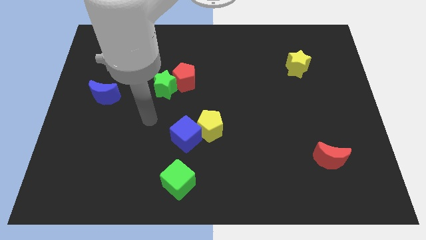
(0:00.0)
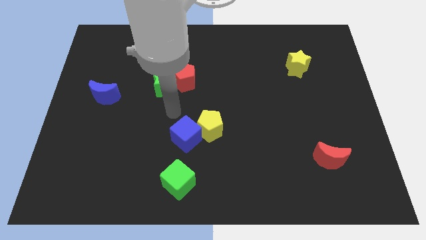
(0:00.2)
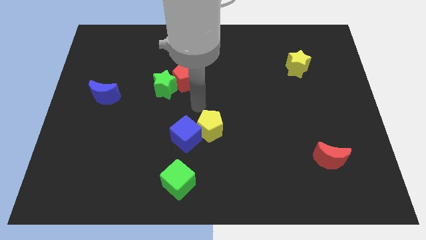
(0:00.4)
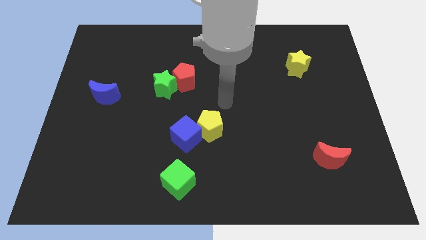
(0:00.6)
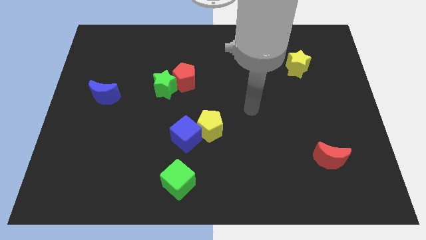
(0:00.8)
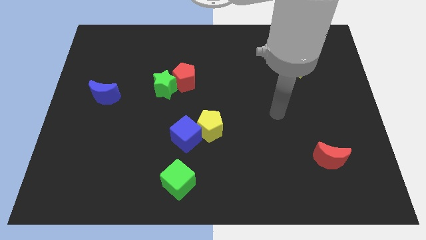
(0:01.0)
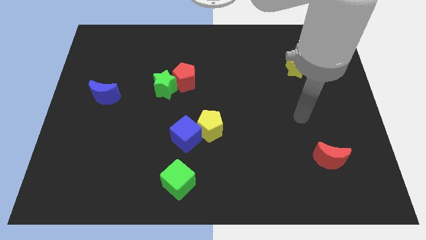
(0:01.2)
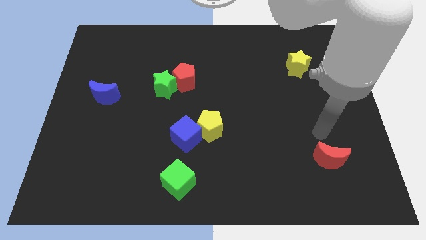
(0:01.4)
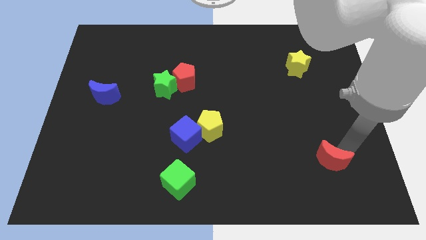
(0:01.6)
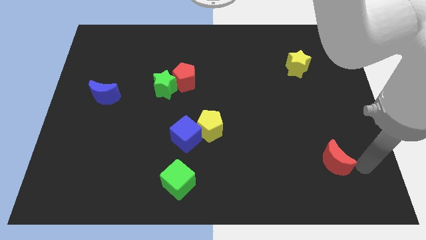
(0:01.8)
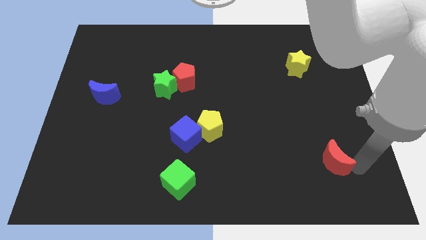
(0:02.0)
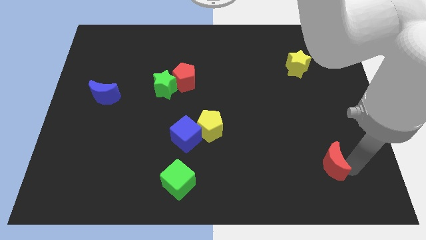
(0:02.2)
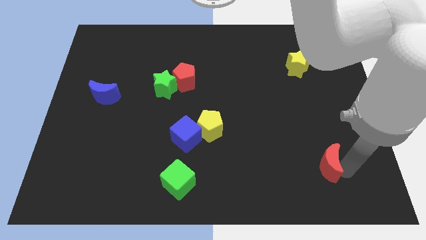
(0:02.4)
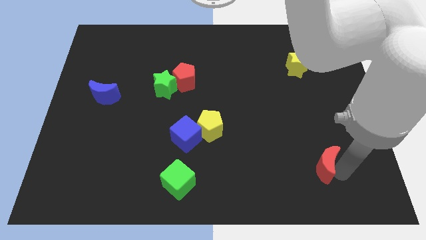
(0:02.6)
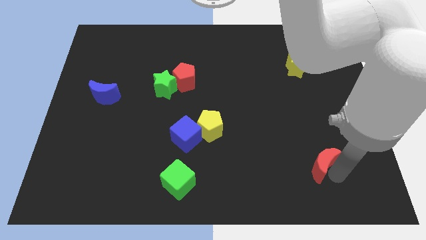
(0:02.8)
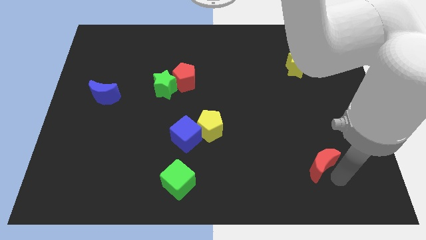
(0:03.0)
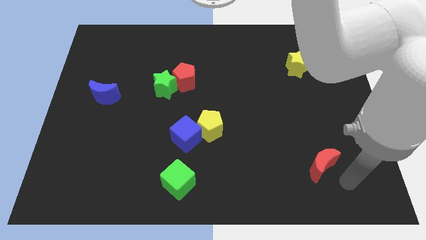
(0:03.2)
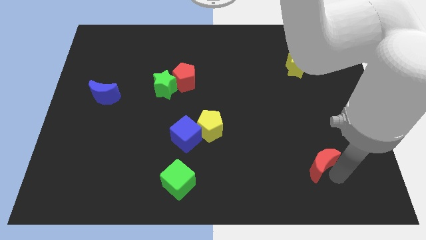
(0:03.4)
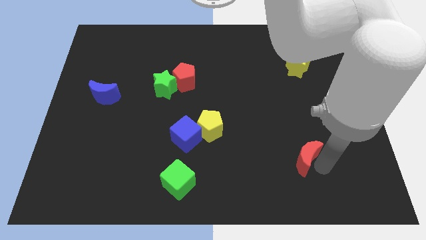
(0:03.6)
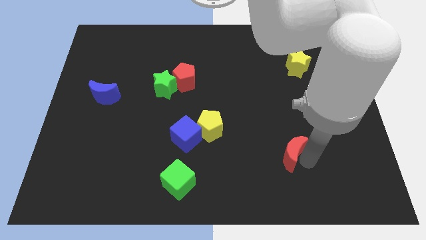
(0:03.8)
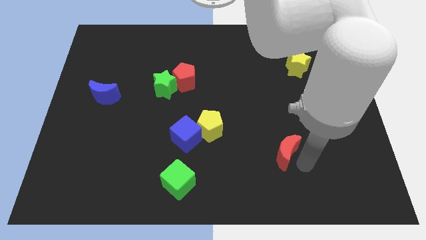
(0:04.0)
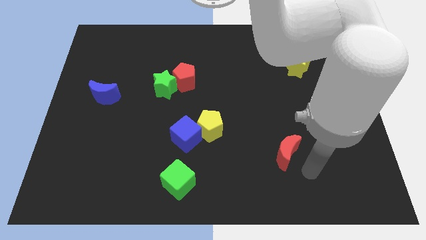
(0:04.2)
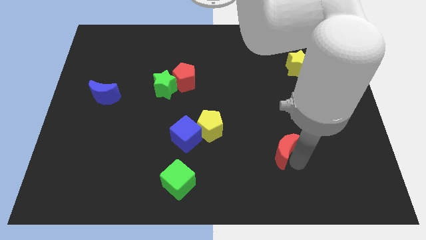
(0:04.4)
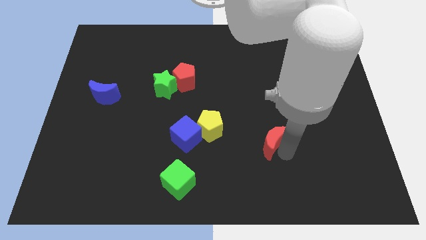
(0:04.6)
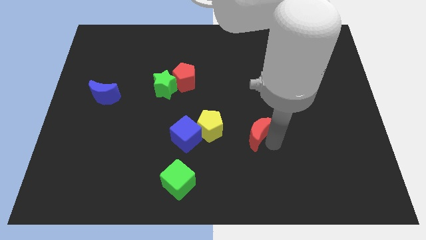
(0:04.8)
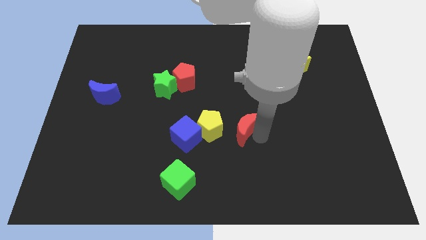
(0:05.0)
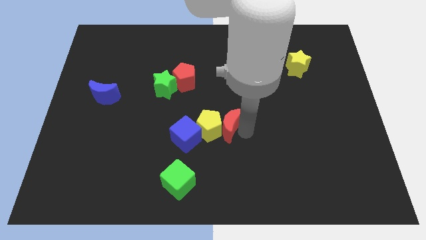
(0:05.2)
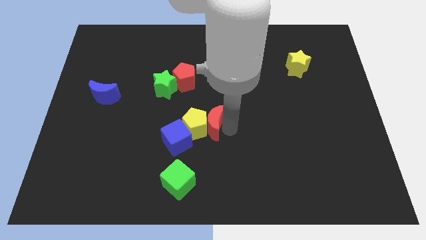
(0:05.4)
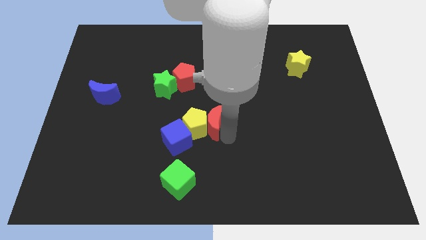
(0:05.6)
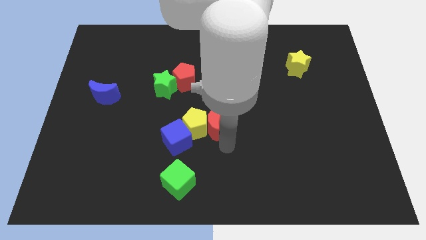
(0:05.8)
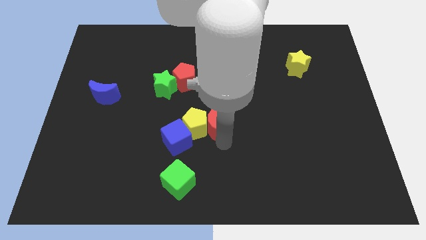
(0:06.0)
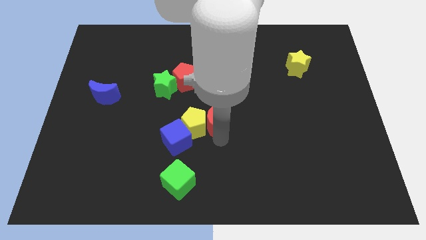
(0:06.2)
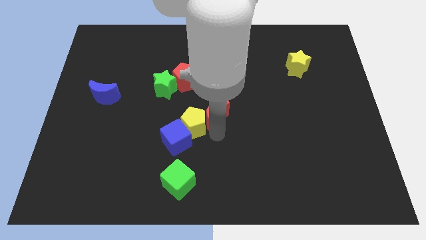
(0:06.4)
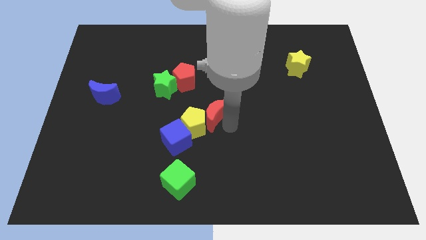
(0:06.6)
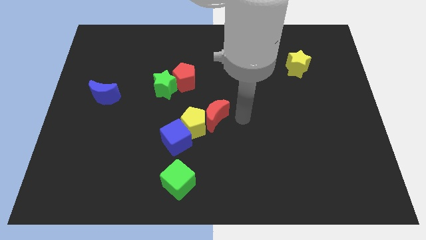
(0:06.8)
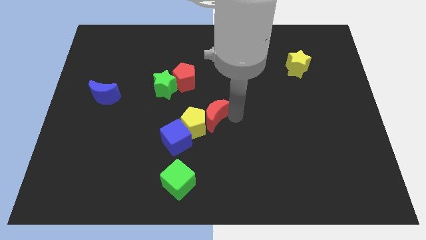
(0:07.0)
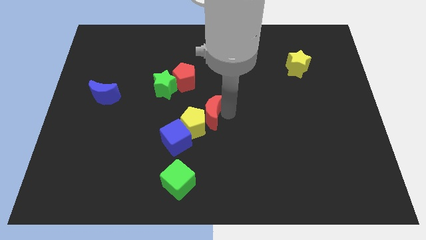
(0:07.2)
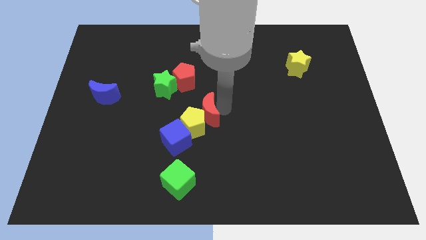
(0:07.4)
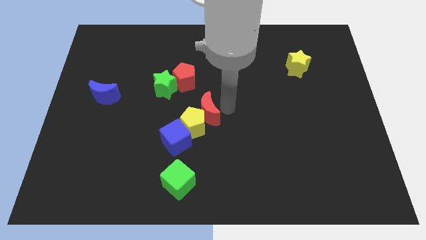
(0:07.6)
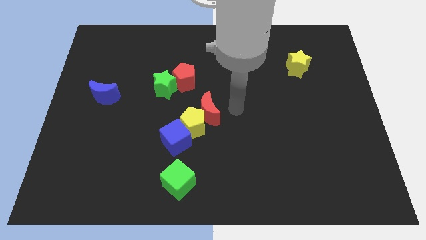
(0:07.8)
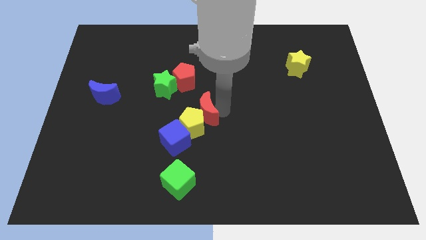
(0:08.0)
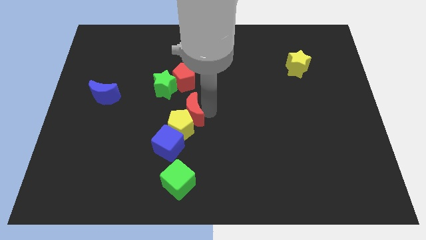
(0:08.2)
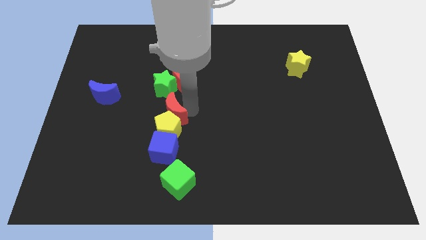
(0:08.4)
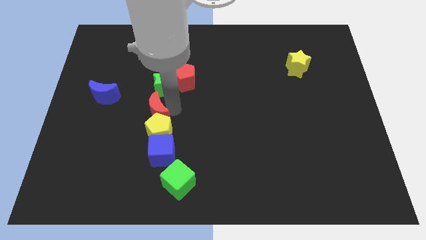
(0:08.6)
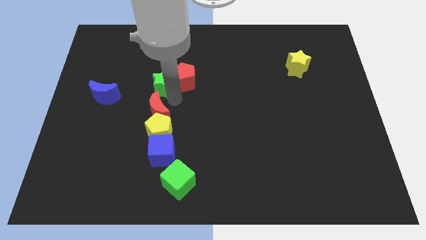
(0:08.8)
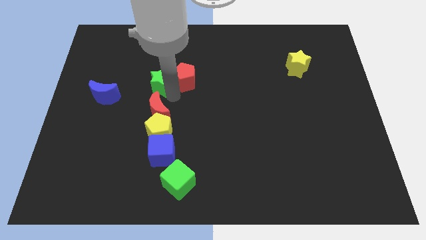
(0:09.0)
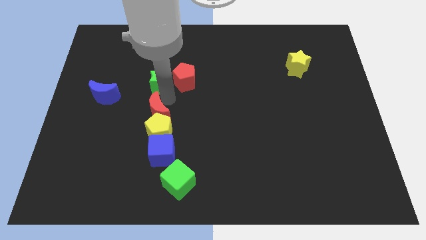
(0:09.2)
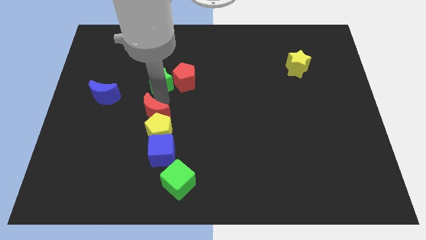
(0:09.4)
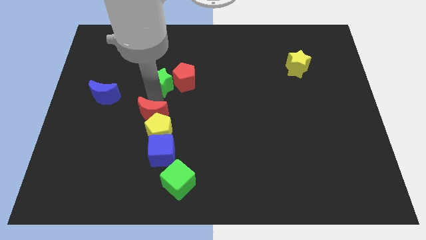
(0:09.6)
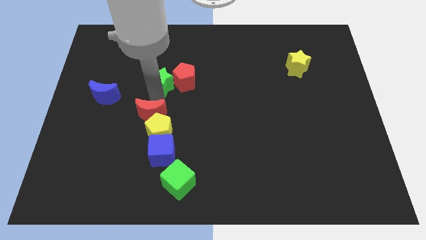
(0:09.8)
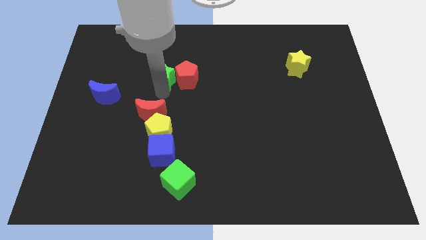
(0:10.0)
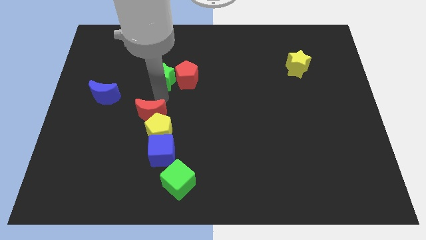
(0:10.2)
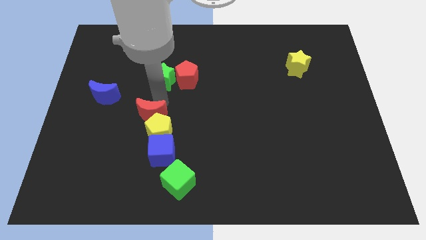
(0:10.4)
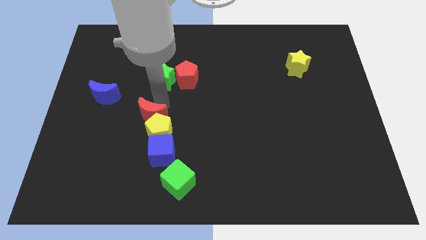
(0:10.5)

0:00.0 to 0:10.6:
push the red moon to the top left side of the blue cube

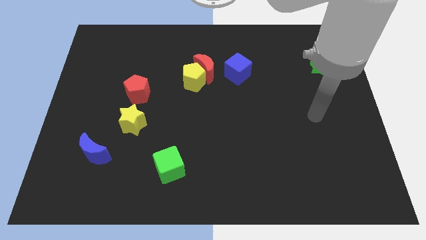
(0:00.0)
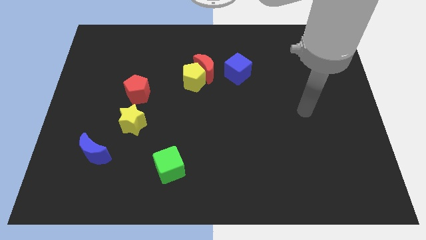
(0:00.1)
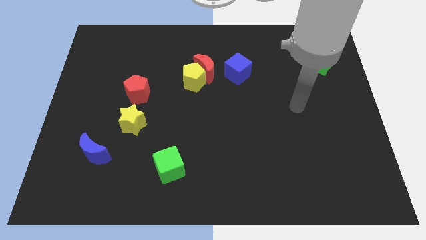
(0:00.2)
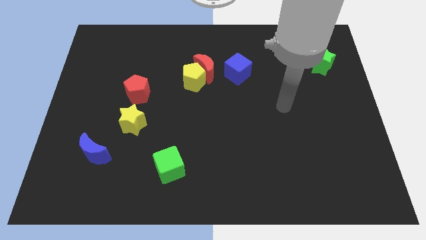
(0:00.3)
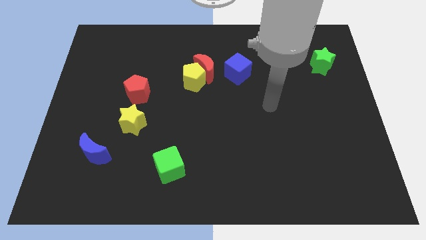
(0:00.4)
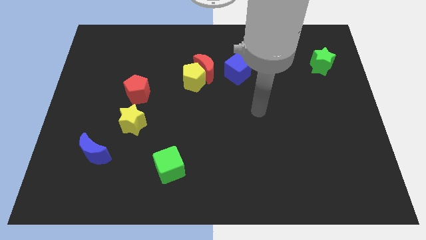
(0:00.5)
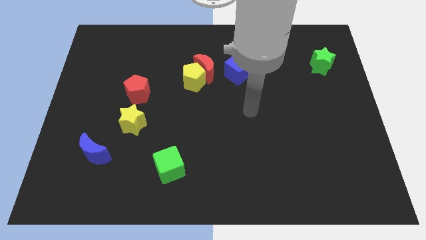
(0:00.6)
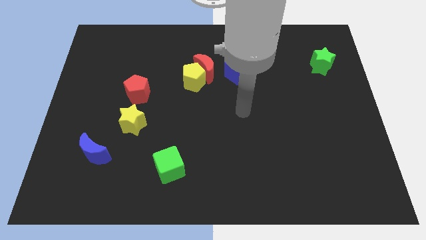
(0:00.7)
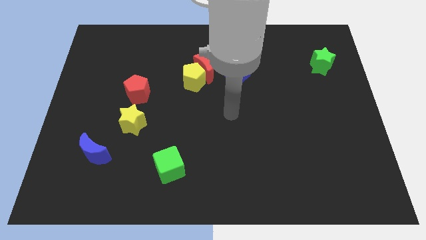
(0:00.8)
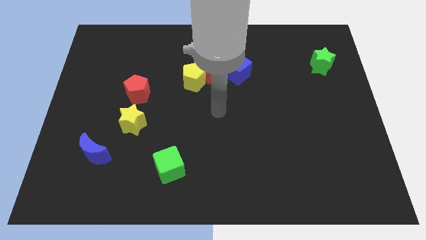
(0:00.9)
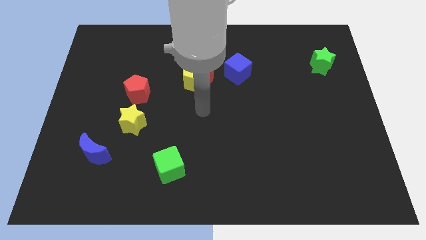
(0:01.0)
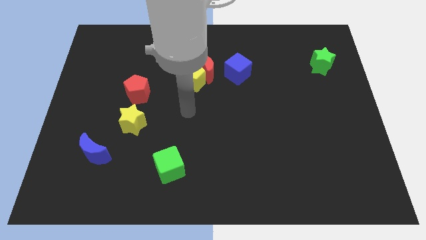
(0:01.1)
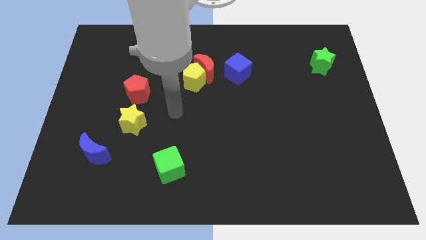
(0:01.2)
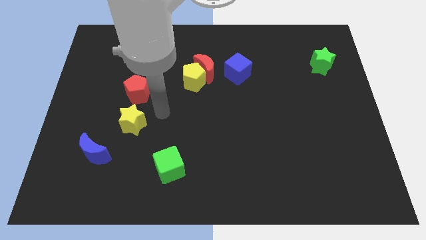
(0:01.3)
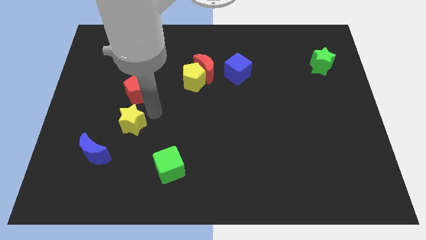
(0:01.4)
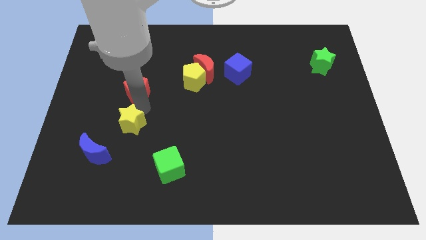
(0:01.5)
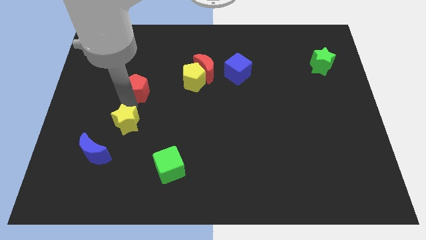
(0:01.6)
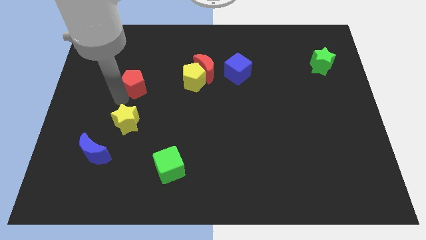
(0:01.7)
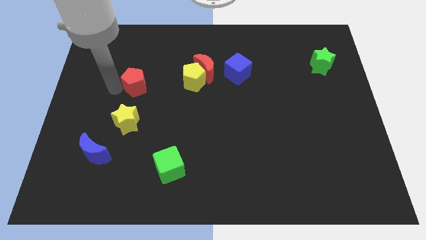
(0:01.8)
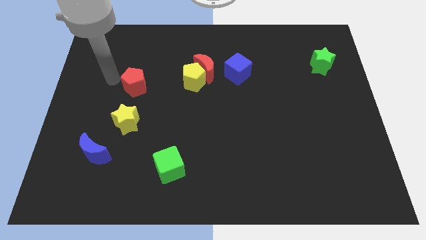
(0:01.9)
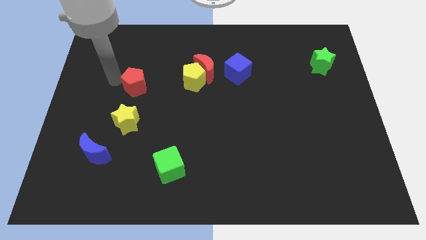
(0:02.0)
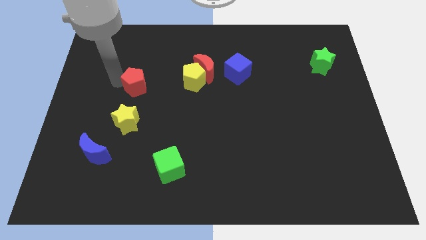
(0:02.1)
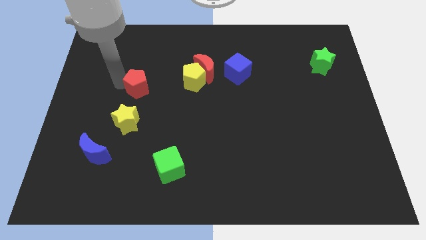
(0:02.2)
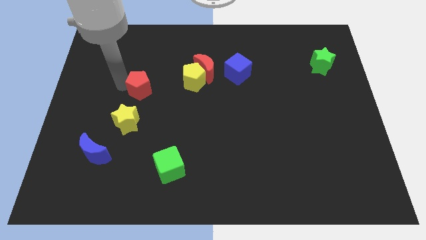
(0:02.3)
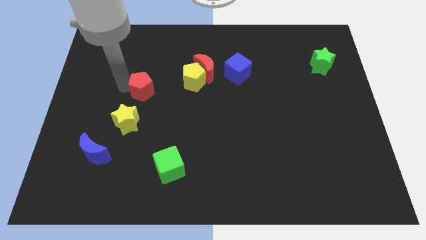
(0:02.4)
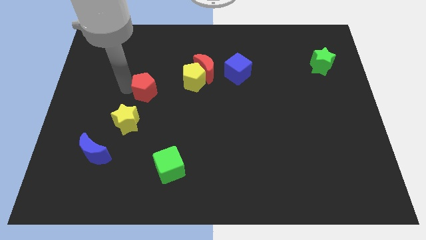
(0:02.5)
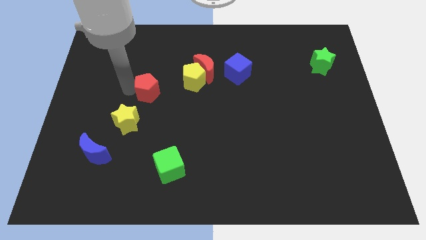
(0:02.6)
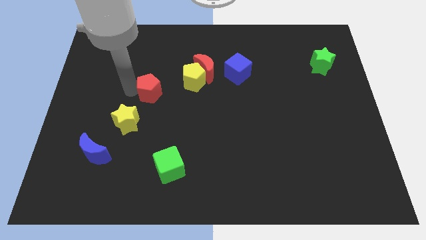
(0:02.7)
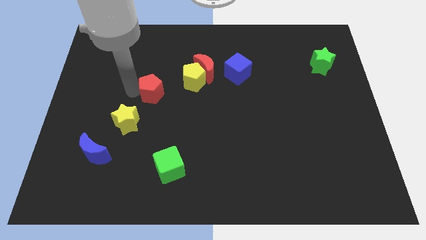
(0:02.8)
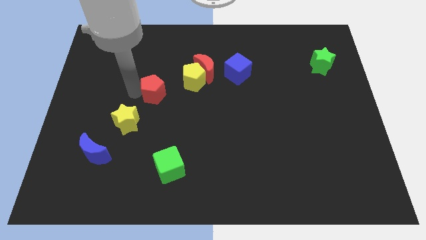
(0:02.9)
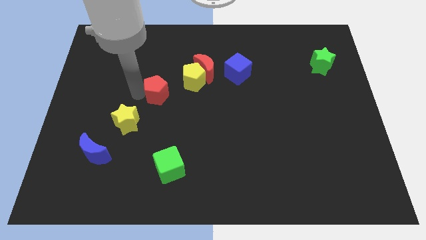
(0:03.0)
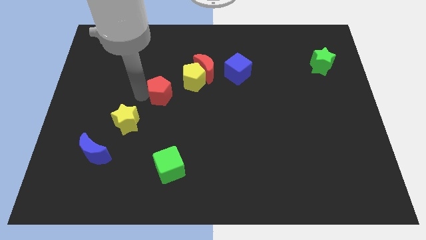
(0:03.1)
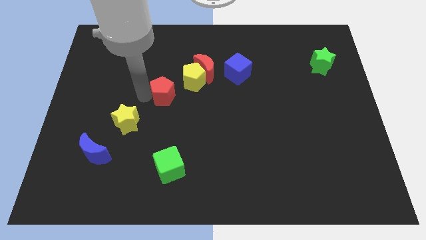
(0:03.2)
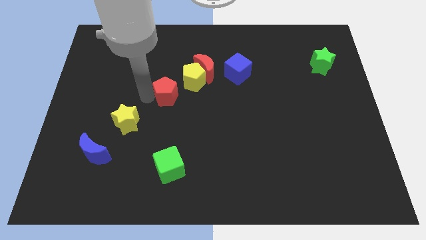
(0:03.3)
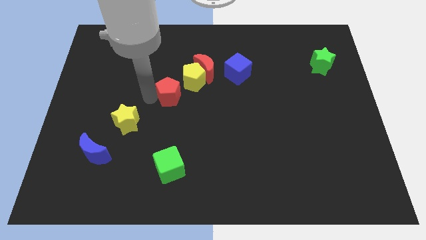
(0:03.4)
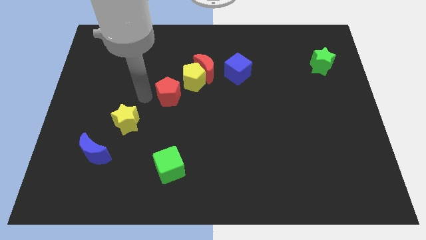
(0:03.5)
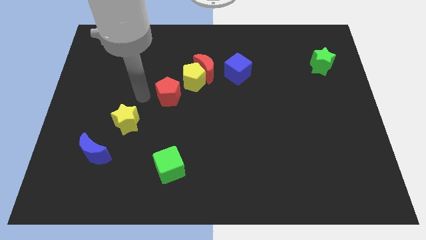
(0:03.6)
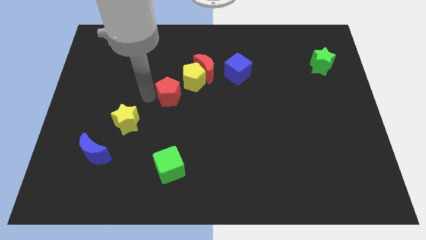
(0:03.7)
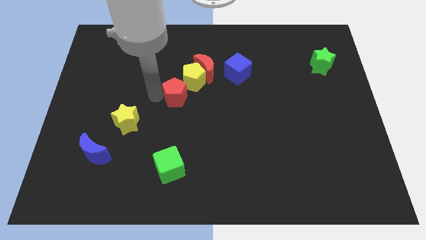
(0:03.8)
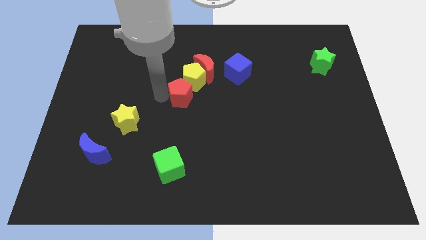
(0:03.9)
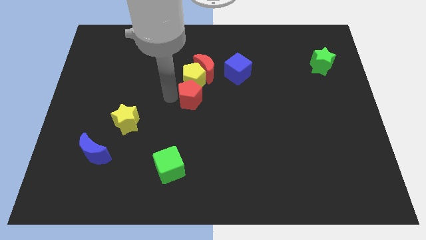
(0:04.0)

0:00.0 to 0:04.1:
put the red pentagon to the bottom right of the yellow pentagon
